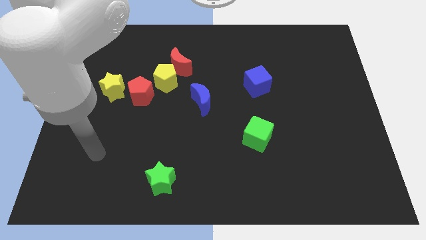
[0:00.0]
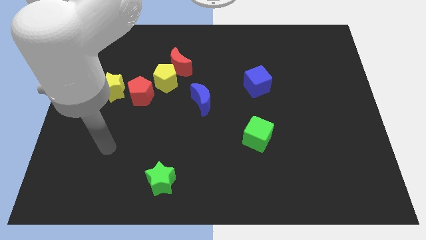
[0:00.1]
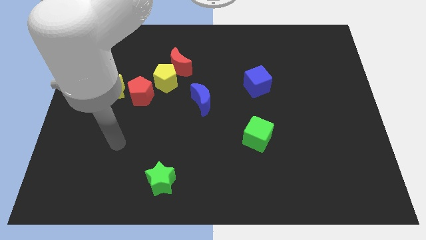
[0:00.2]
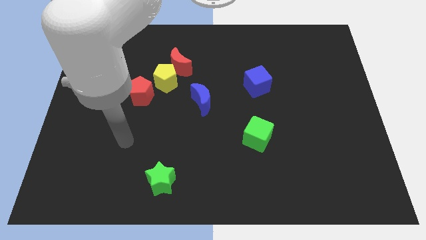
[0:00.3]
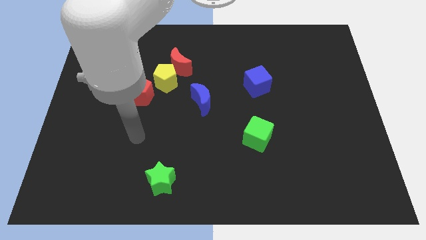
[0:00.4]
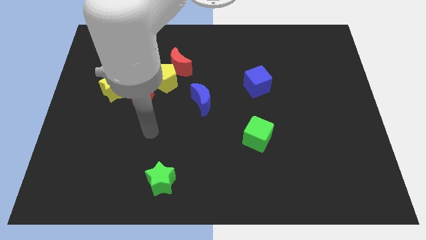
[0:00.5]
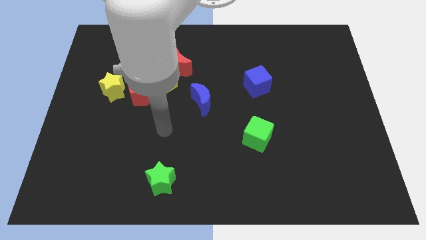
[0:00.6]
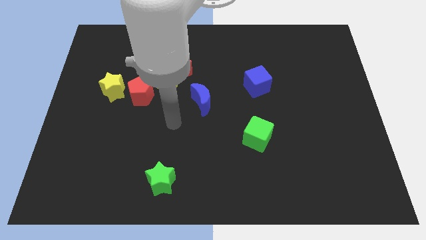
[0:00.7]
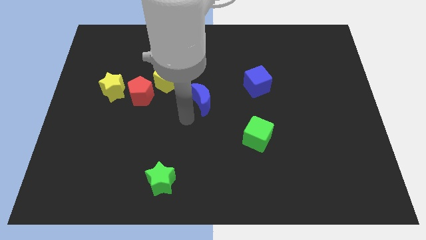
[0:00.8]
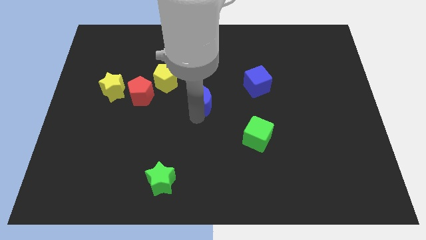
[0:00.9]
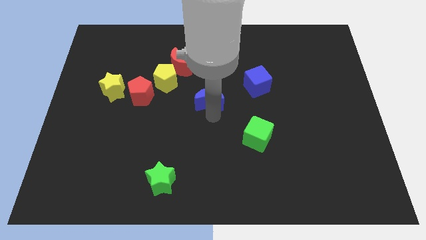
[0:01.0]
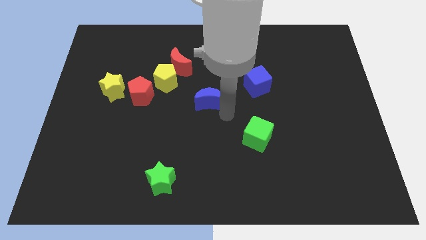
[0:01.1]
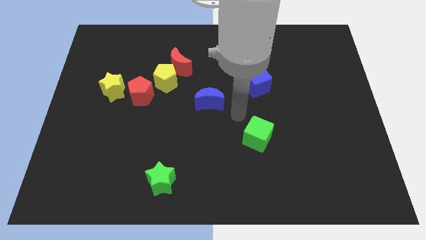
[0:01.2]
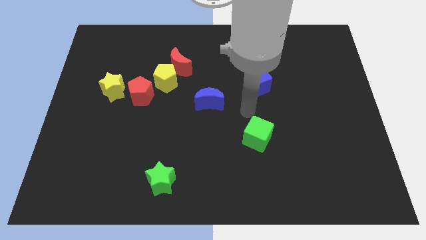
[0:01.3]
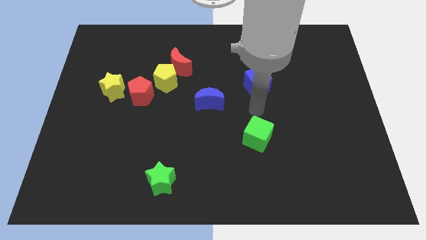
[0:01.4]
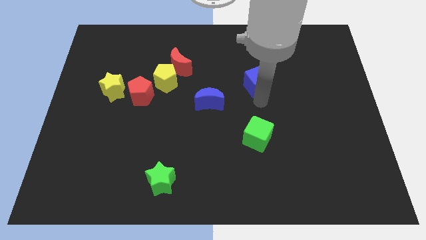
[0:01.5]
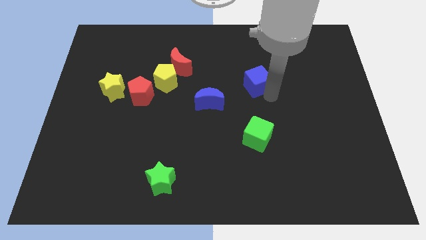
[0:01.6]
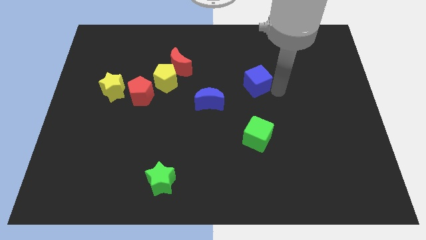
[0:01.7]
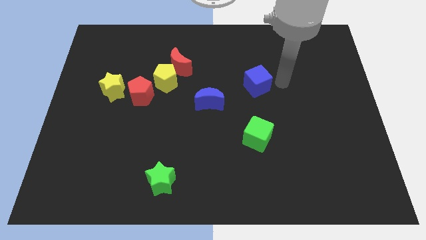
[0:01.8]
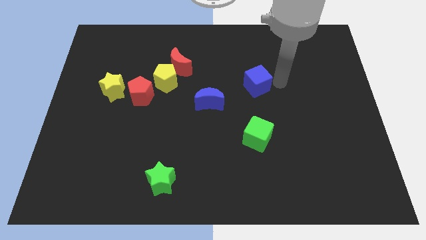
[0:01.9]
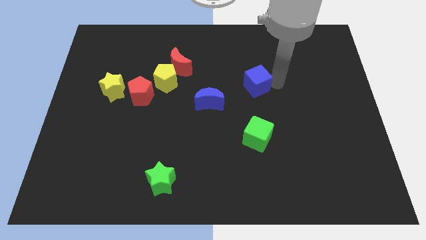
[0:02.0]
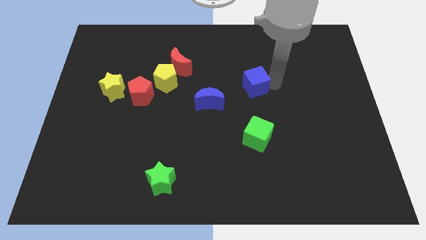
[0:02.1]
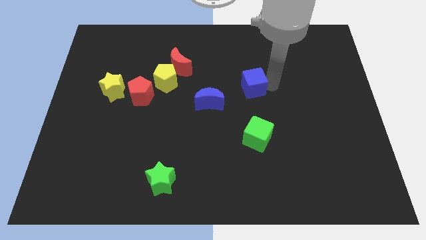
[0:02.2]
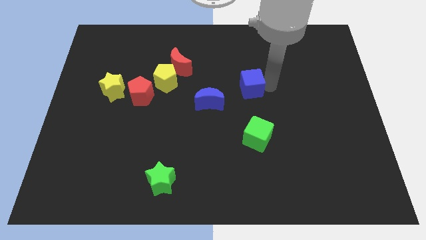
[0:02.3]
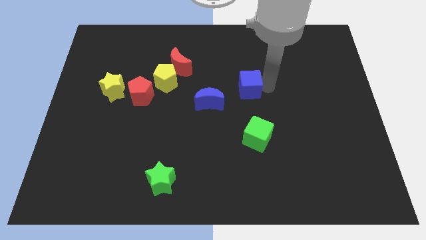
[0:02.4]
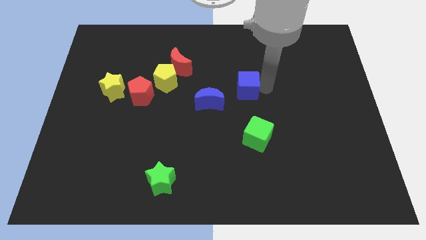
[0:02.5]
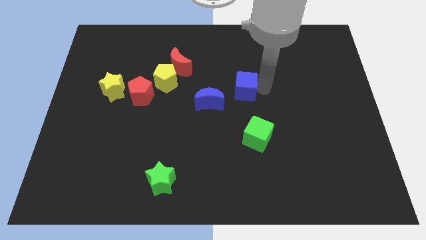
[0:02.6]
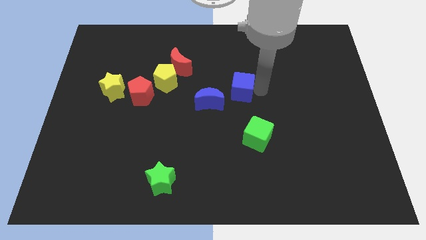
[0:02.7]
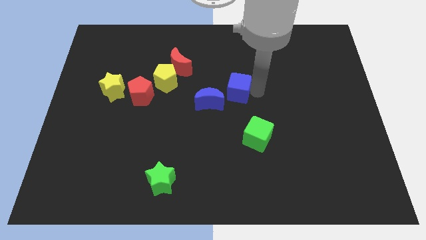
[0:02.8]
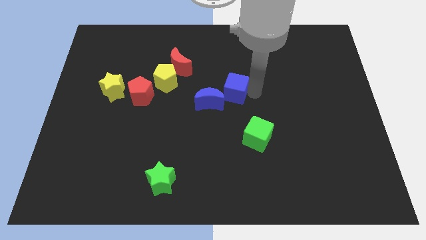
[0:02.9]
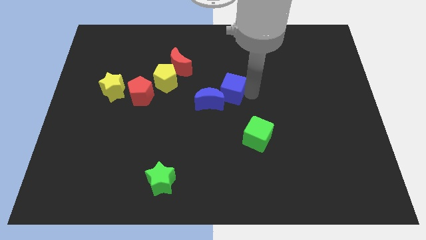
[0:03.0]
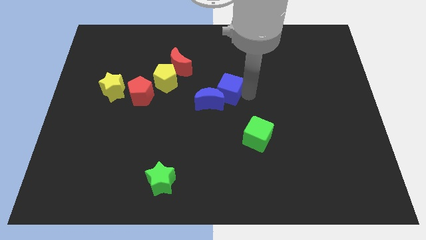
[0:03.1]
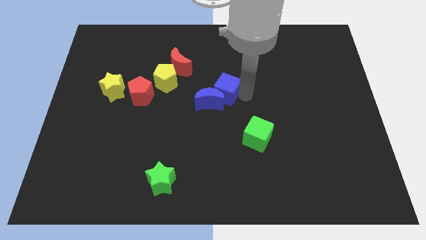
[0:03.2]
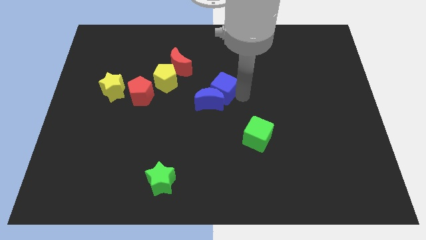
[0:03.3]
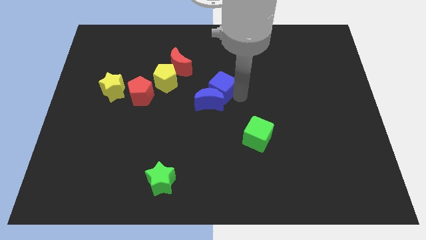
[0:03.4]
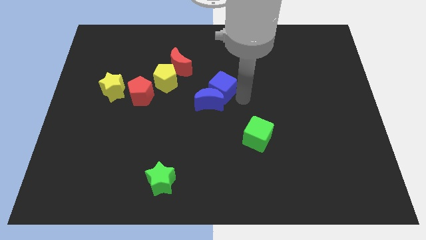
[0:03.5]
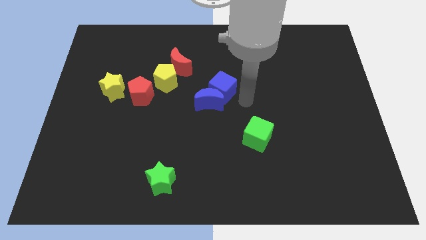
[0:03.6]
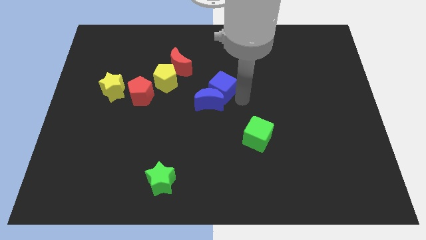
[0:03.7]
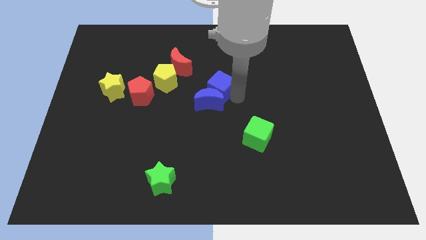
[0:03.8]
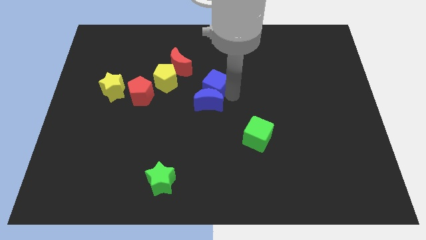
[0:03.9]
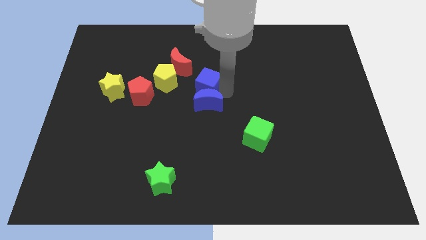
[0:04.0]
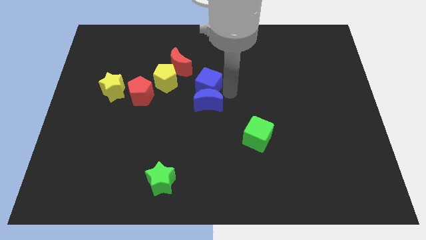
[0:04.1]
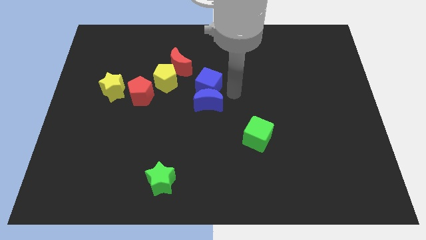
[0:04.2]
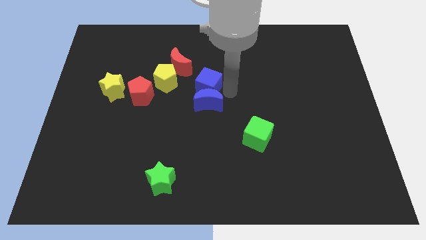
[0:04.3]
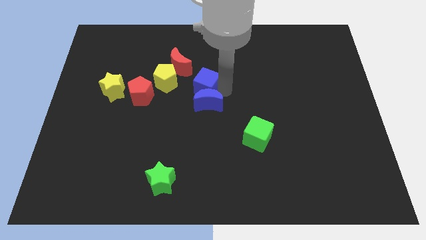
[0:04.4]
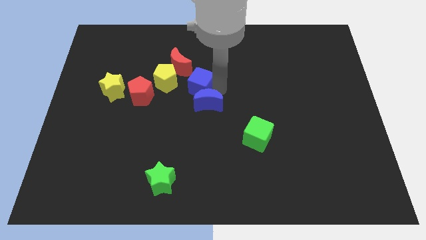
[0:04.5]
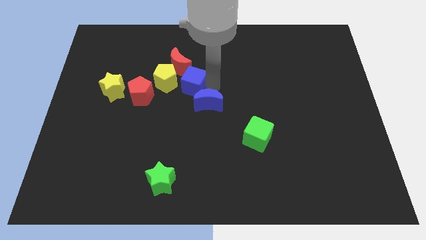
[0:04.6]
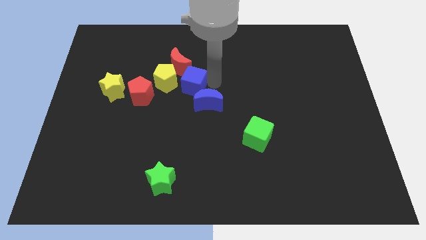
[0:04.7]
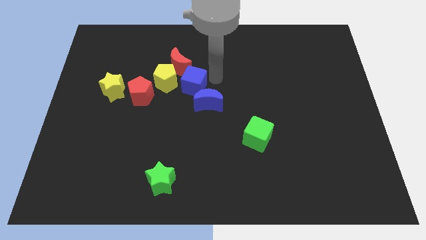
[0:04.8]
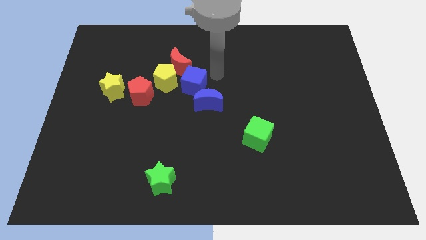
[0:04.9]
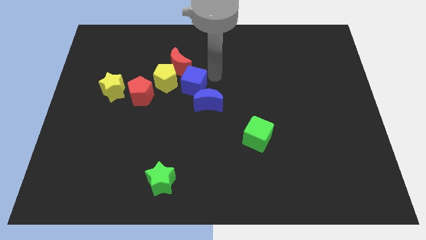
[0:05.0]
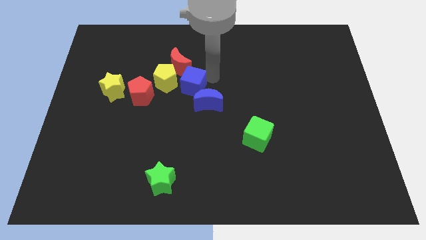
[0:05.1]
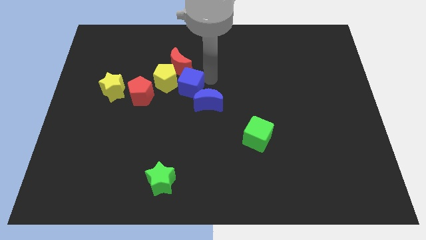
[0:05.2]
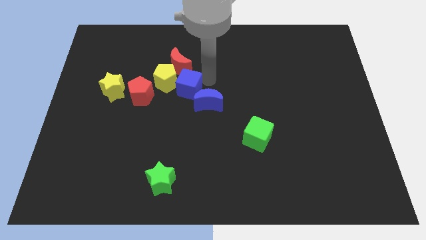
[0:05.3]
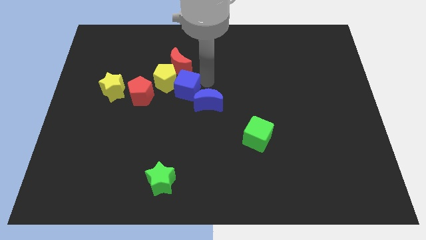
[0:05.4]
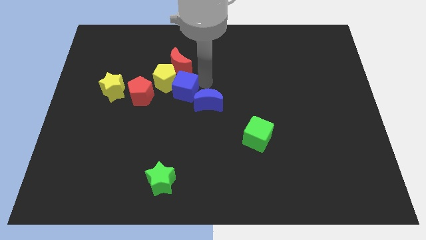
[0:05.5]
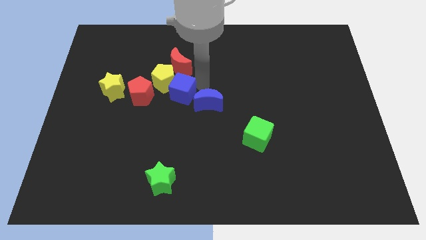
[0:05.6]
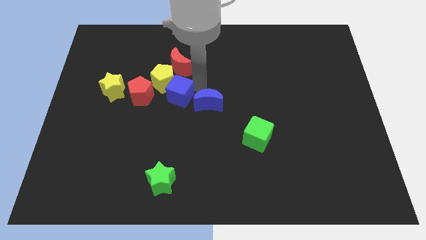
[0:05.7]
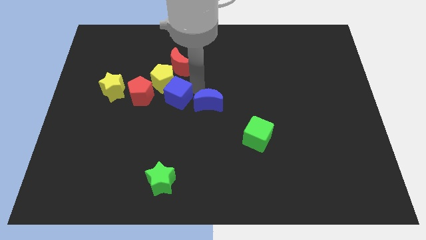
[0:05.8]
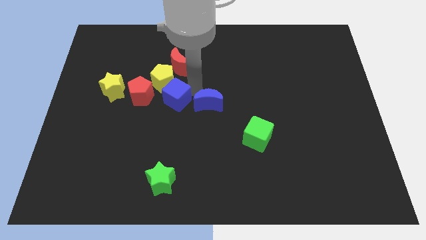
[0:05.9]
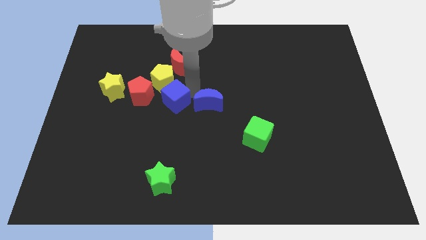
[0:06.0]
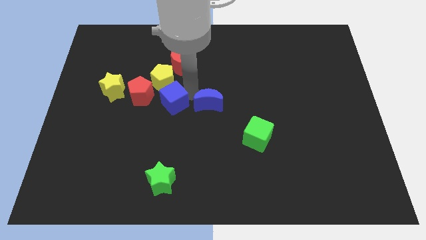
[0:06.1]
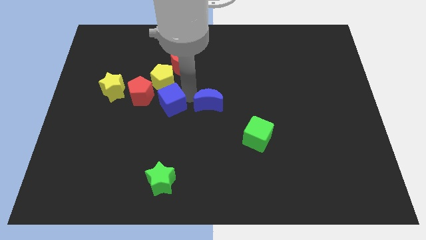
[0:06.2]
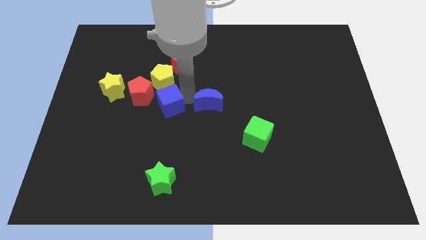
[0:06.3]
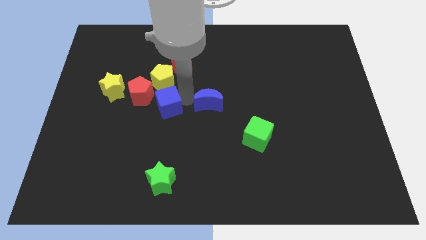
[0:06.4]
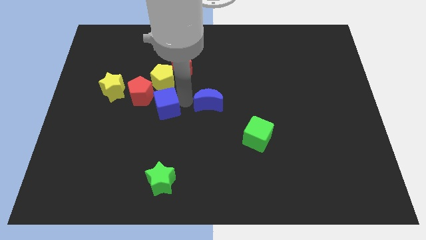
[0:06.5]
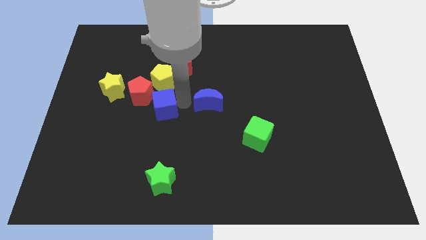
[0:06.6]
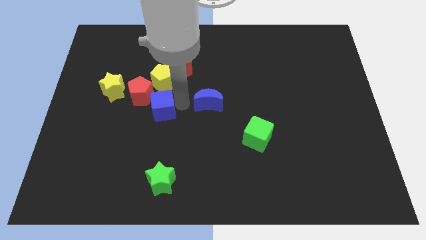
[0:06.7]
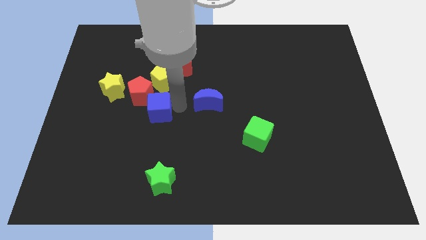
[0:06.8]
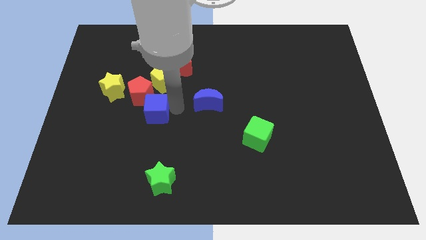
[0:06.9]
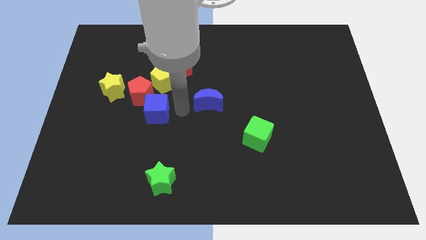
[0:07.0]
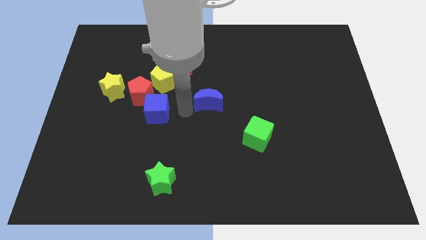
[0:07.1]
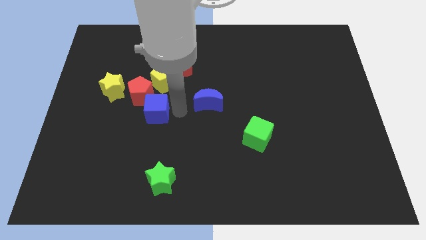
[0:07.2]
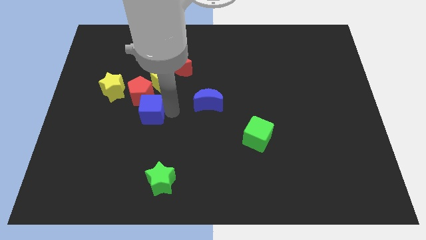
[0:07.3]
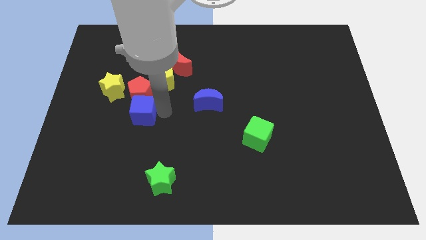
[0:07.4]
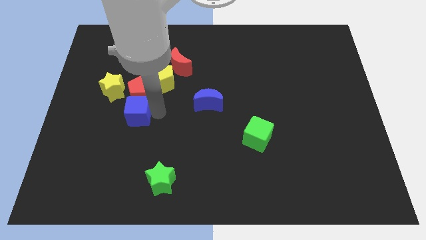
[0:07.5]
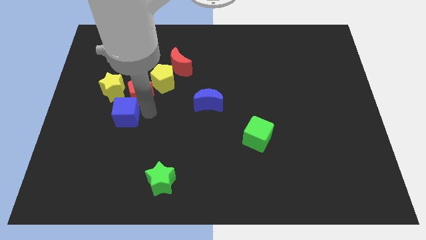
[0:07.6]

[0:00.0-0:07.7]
move the blue cube below the yellow star
